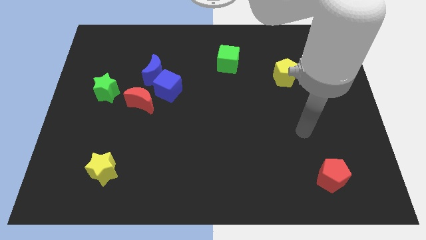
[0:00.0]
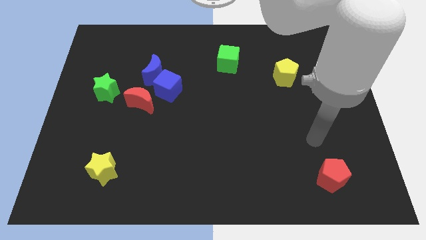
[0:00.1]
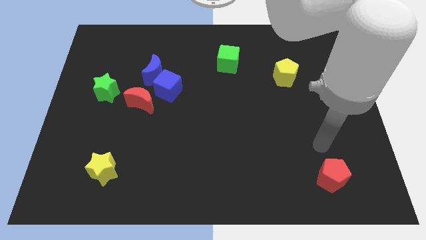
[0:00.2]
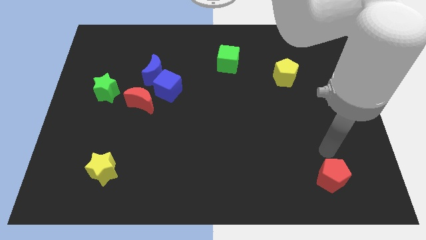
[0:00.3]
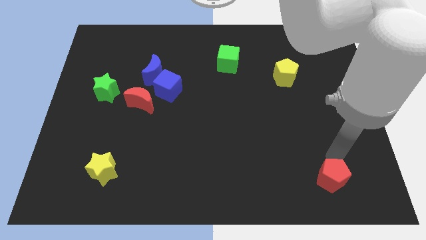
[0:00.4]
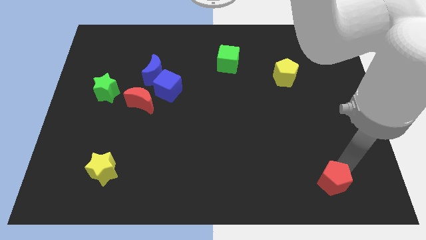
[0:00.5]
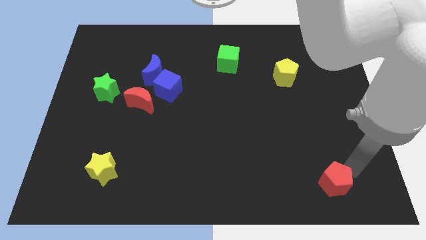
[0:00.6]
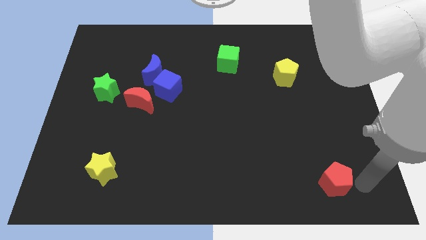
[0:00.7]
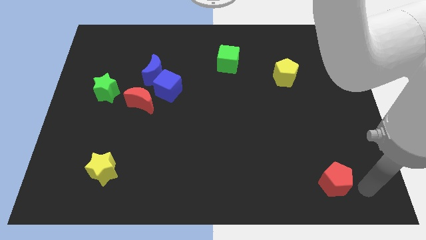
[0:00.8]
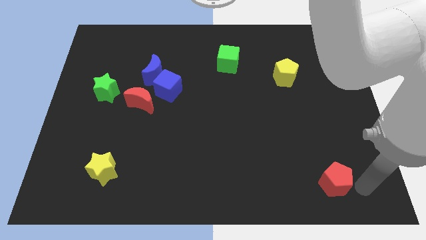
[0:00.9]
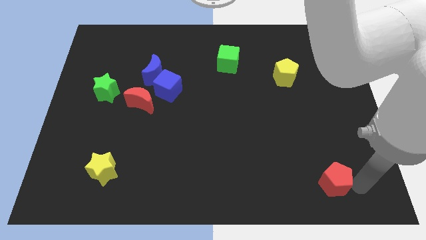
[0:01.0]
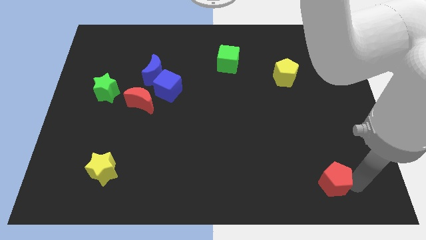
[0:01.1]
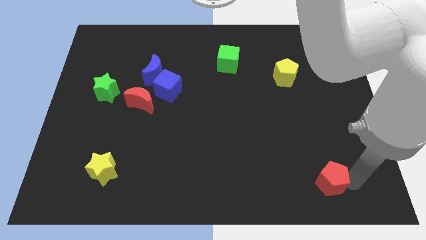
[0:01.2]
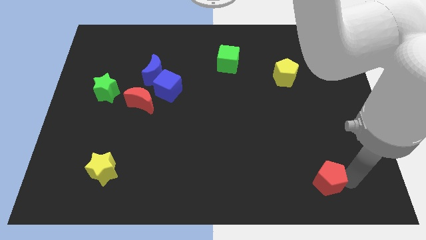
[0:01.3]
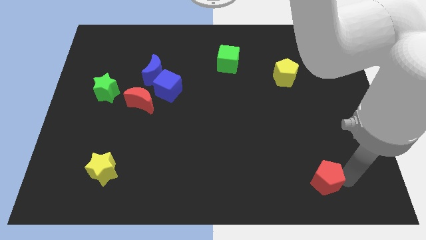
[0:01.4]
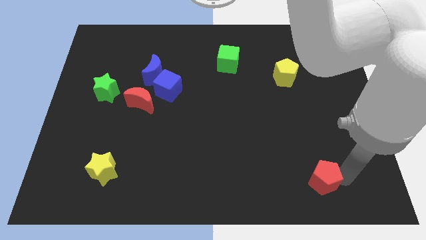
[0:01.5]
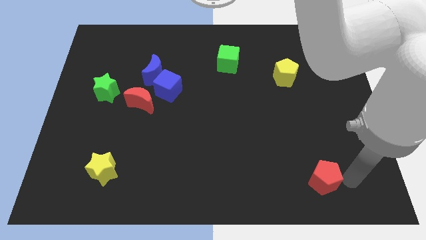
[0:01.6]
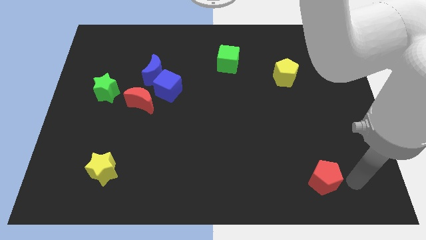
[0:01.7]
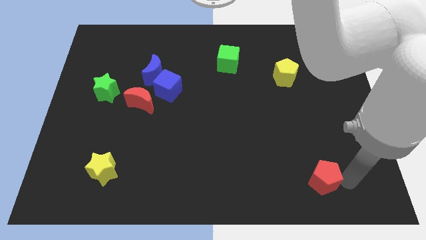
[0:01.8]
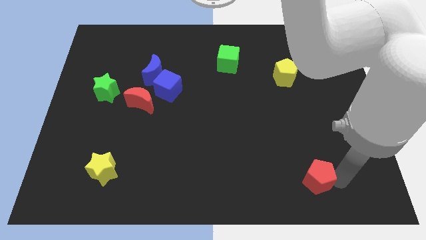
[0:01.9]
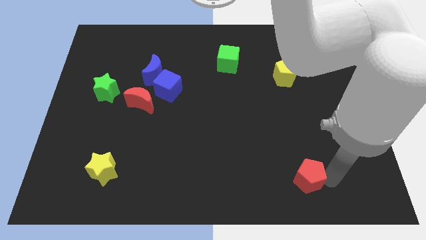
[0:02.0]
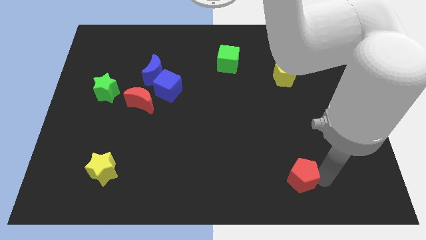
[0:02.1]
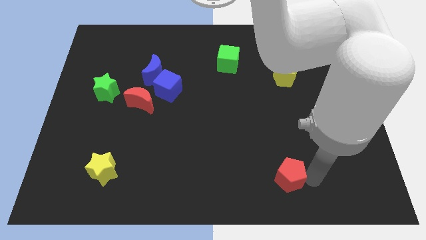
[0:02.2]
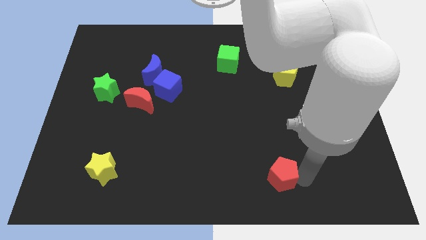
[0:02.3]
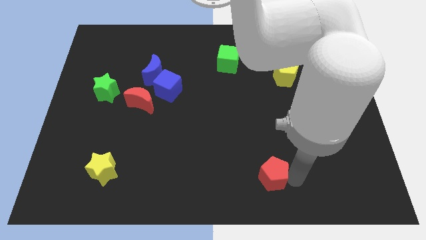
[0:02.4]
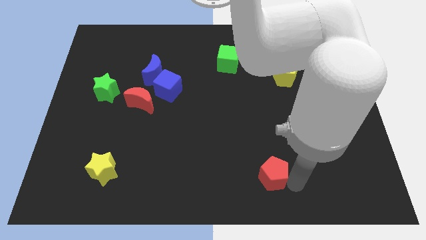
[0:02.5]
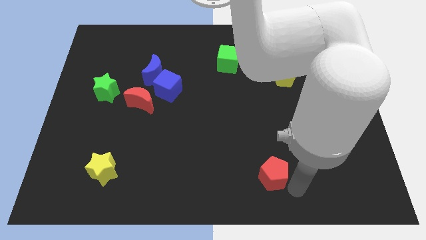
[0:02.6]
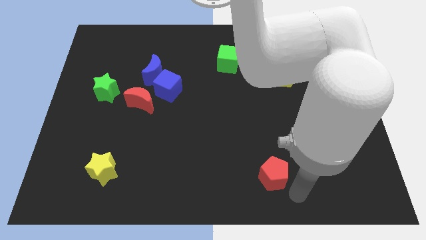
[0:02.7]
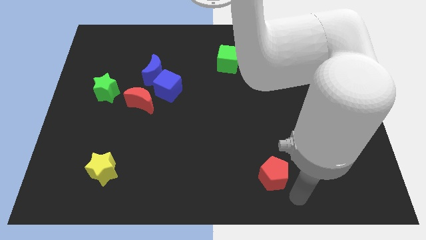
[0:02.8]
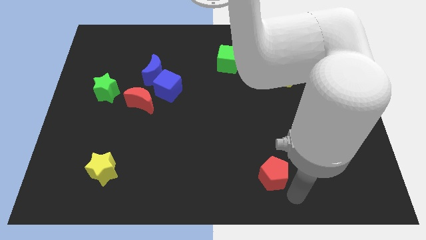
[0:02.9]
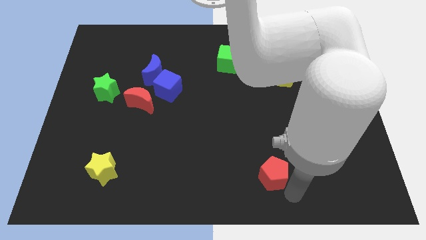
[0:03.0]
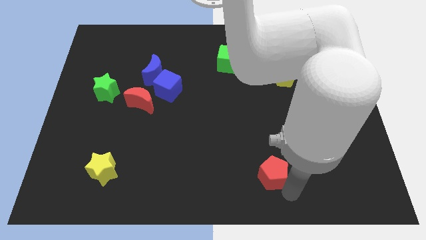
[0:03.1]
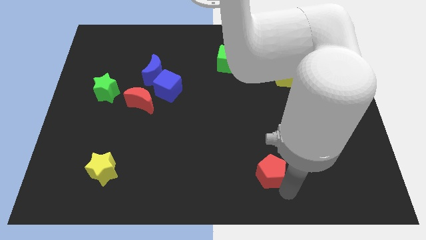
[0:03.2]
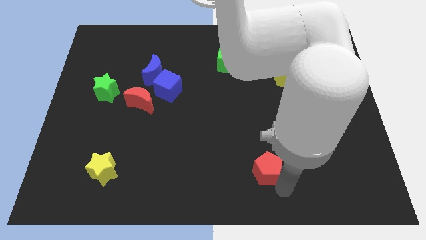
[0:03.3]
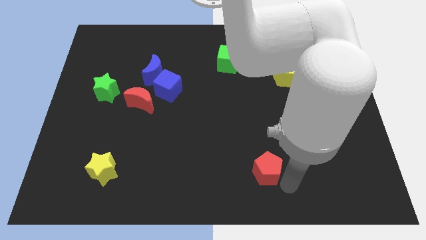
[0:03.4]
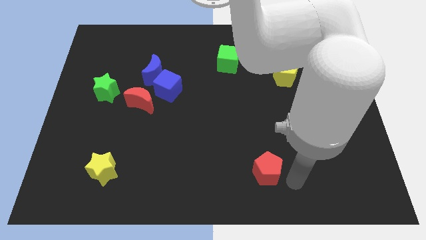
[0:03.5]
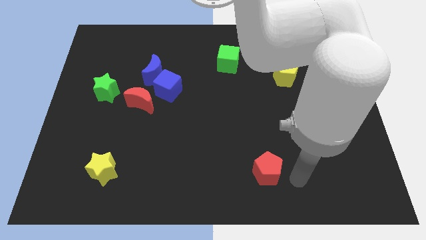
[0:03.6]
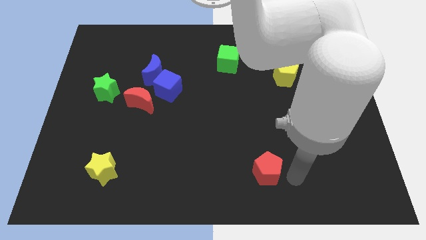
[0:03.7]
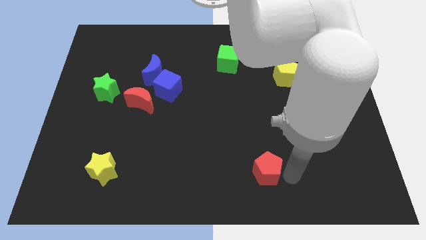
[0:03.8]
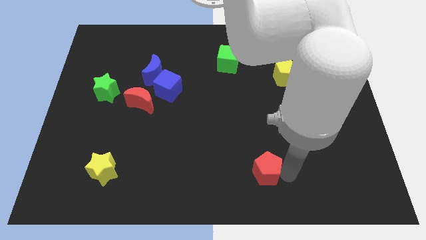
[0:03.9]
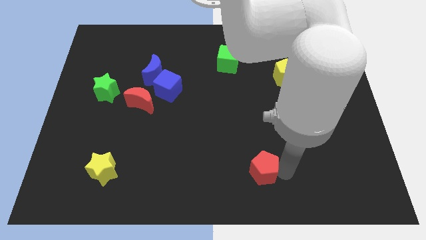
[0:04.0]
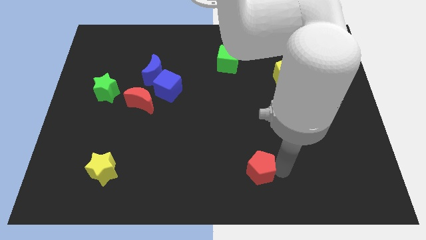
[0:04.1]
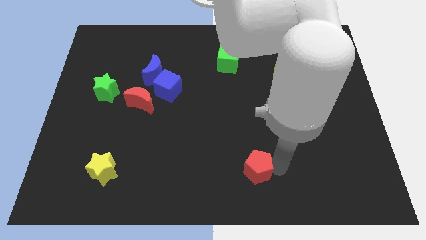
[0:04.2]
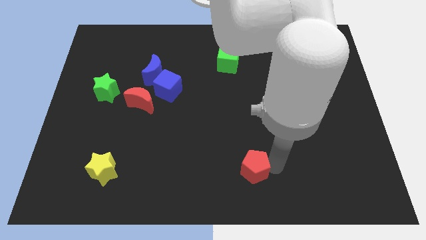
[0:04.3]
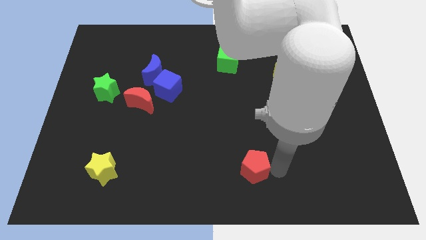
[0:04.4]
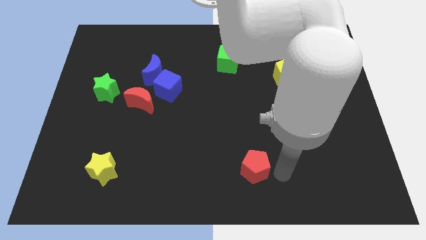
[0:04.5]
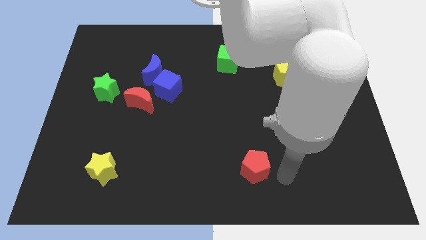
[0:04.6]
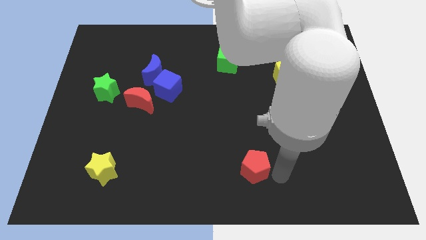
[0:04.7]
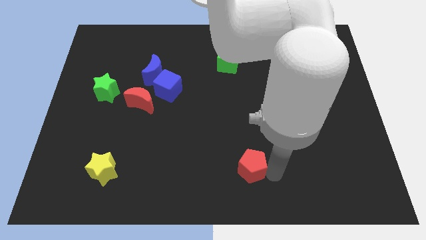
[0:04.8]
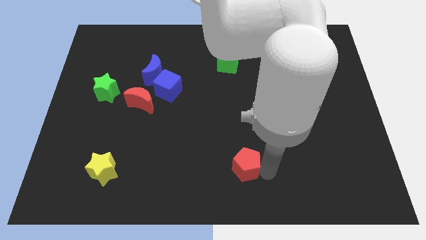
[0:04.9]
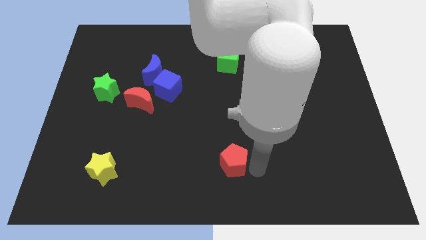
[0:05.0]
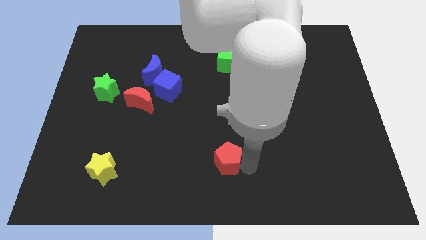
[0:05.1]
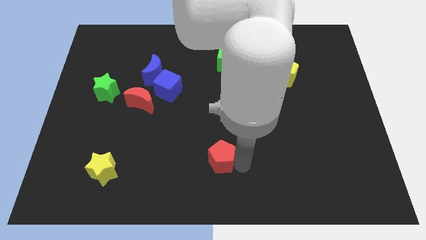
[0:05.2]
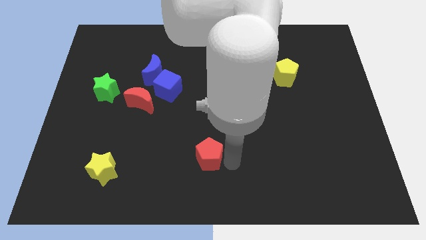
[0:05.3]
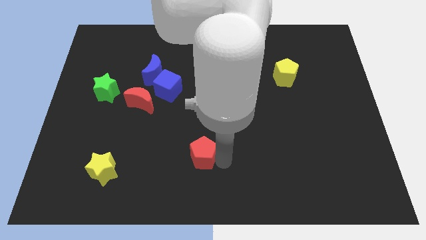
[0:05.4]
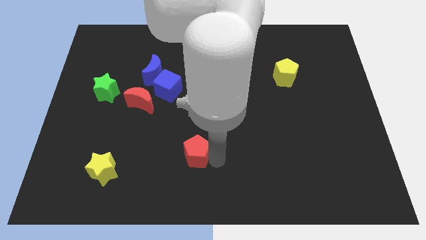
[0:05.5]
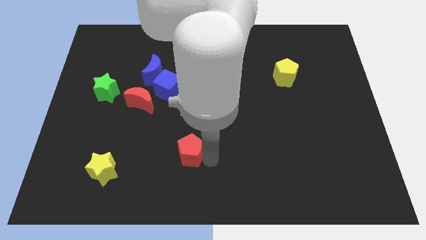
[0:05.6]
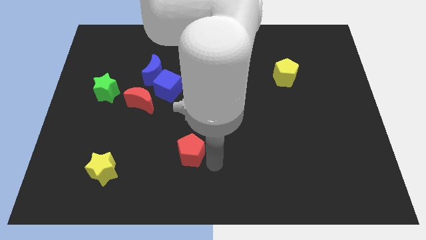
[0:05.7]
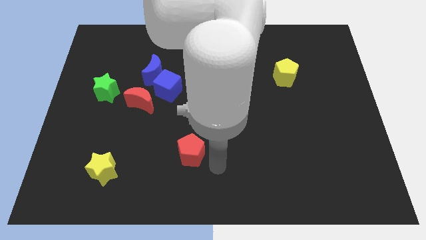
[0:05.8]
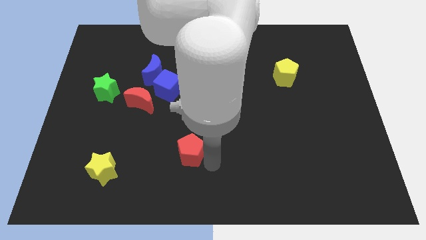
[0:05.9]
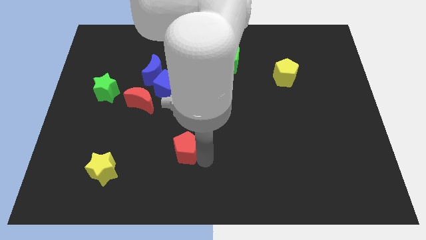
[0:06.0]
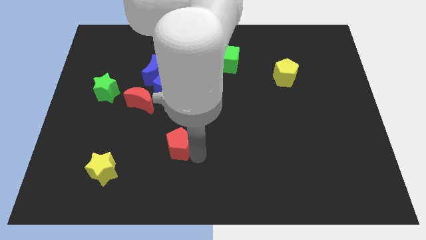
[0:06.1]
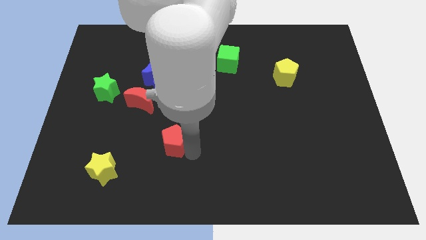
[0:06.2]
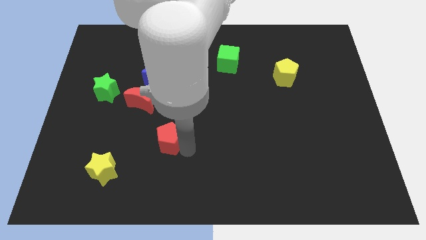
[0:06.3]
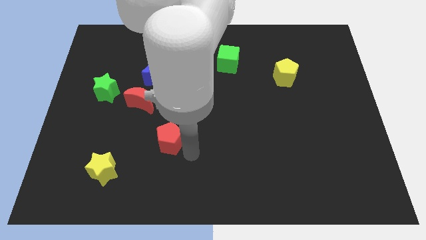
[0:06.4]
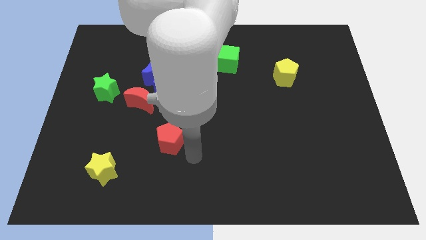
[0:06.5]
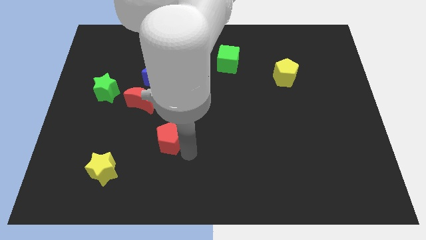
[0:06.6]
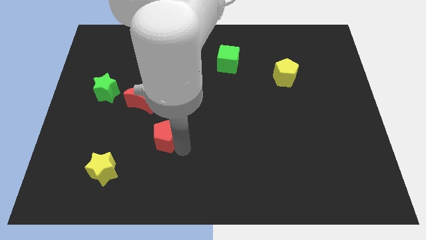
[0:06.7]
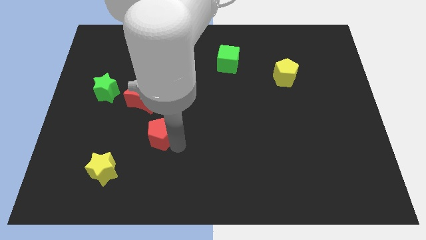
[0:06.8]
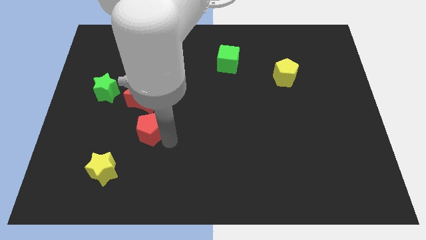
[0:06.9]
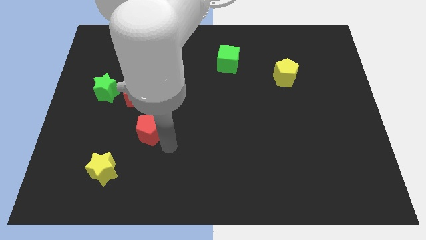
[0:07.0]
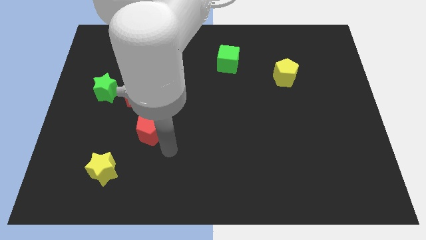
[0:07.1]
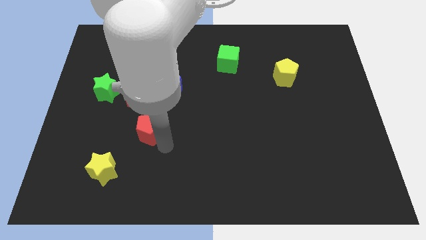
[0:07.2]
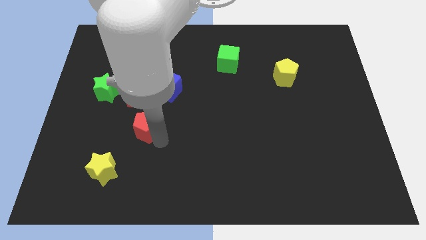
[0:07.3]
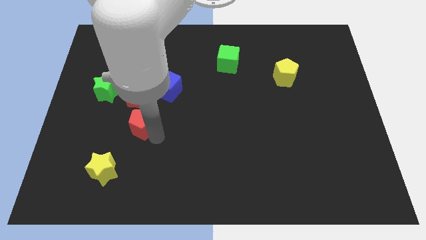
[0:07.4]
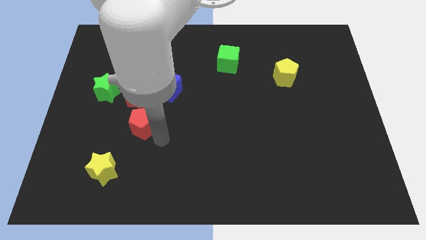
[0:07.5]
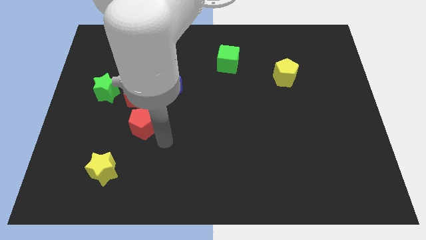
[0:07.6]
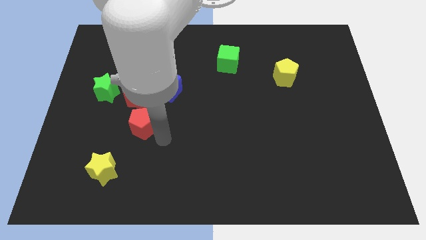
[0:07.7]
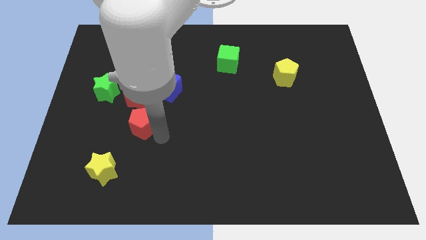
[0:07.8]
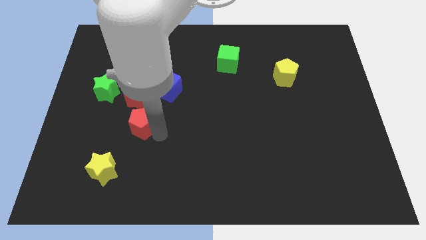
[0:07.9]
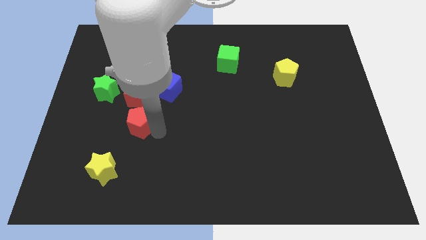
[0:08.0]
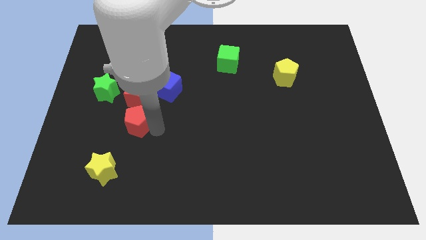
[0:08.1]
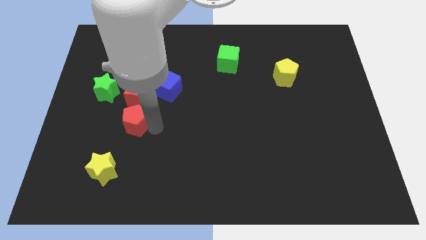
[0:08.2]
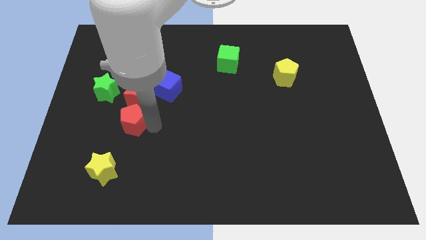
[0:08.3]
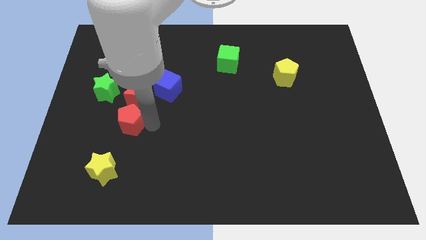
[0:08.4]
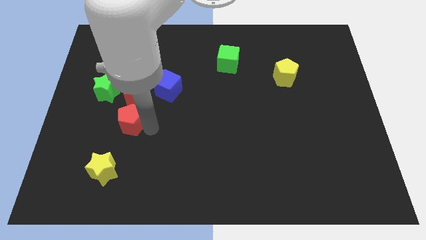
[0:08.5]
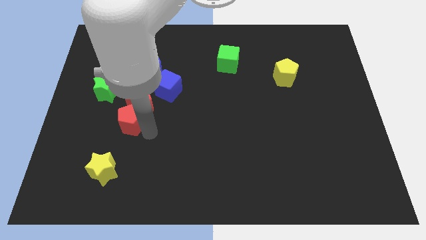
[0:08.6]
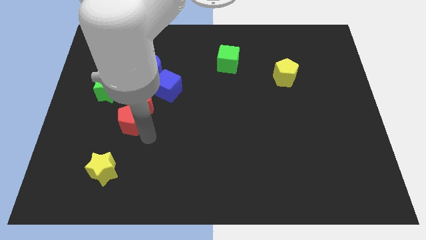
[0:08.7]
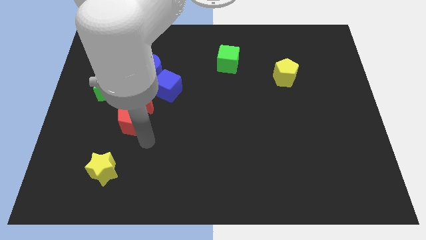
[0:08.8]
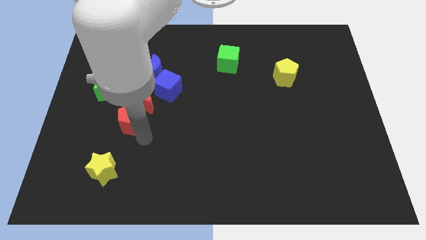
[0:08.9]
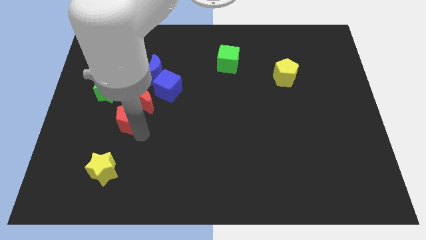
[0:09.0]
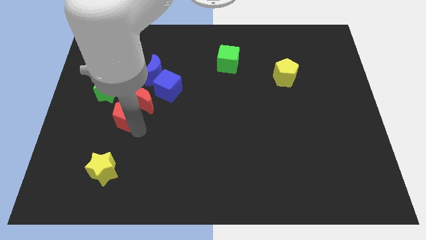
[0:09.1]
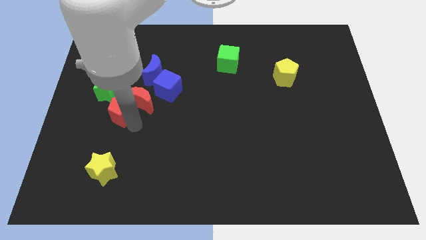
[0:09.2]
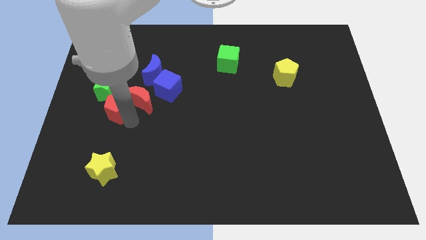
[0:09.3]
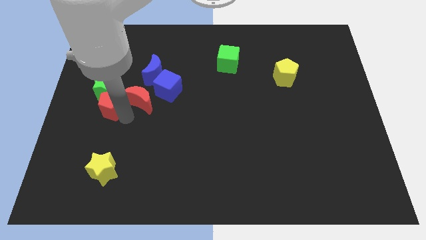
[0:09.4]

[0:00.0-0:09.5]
slide the red pentagon close to the green star
